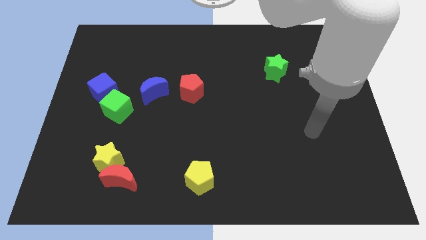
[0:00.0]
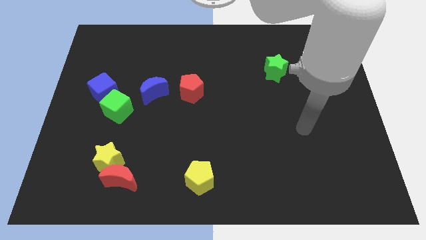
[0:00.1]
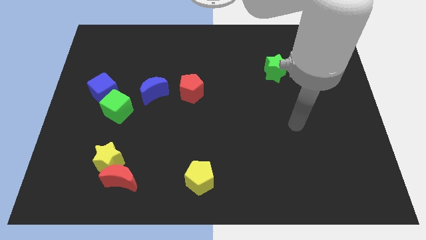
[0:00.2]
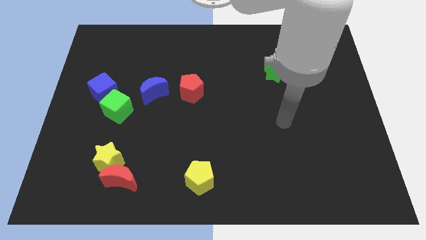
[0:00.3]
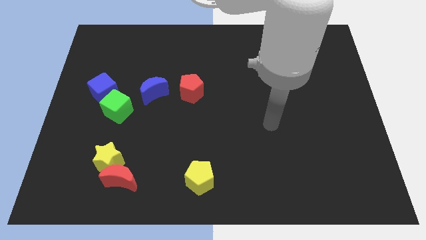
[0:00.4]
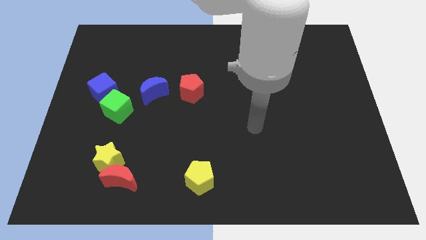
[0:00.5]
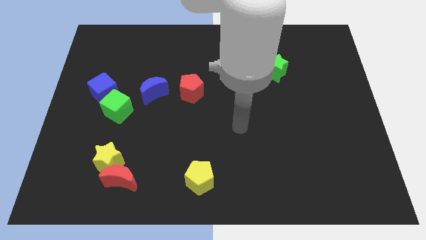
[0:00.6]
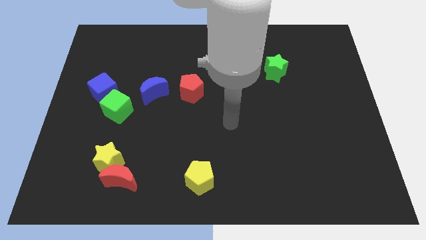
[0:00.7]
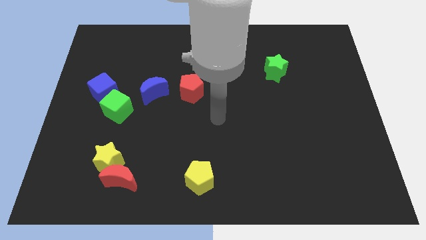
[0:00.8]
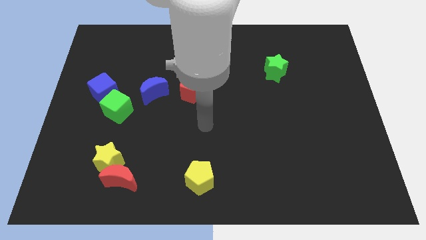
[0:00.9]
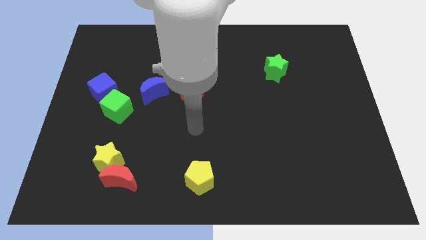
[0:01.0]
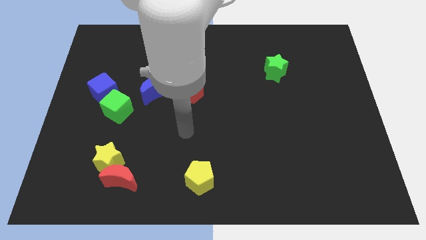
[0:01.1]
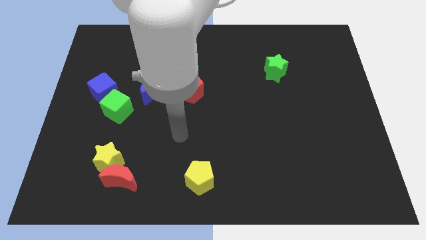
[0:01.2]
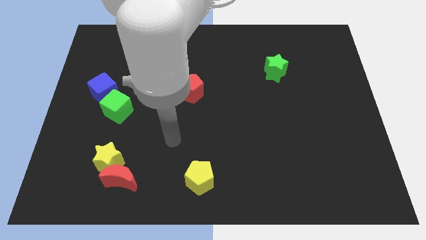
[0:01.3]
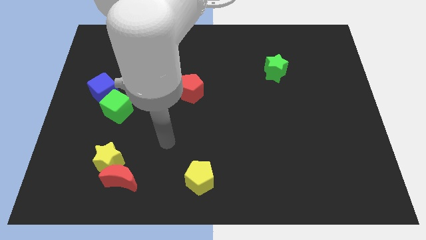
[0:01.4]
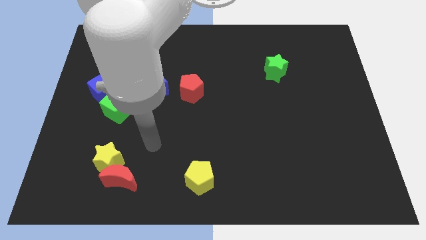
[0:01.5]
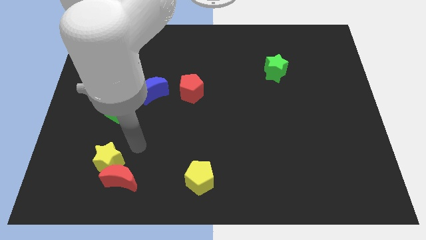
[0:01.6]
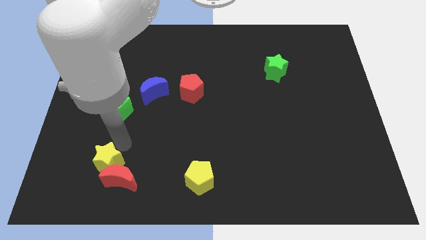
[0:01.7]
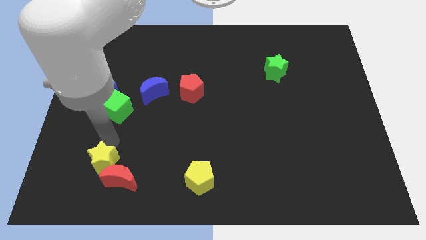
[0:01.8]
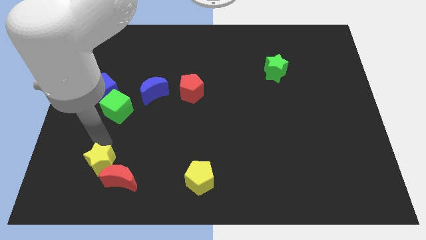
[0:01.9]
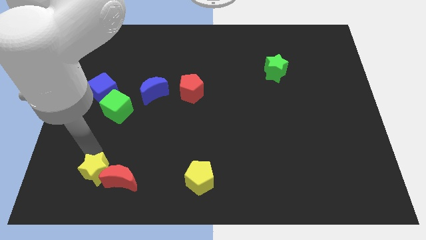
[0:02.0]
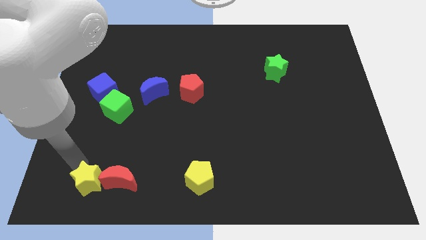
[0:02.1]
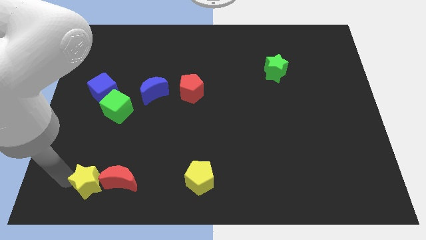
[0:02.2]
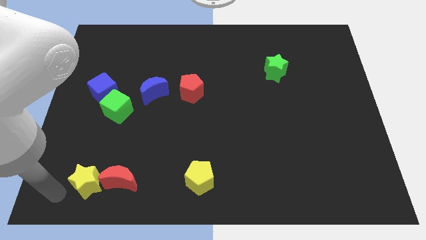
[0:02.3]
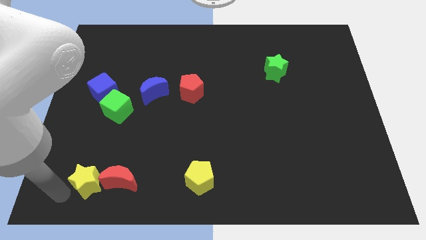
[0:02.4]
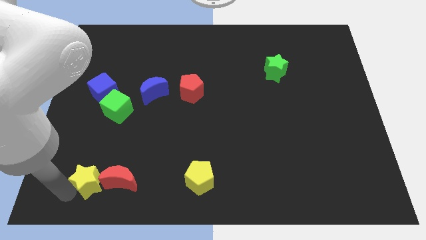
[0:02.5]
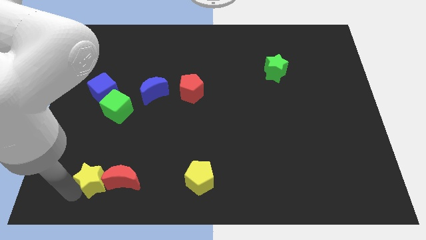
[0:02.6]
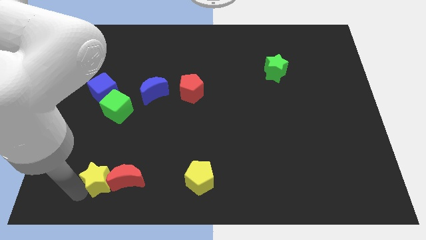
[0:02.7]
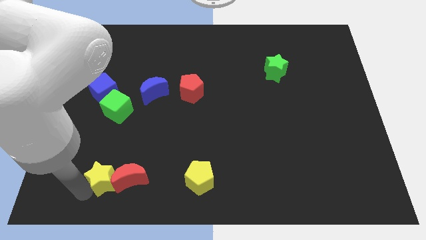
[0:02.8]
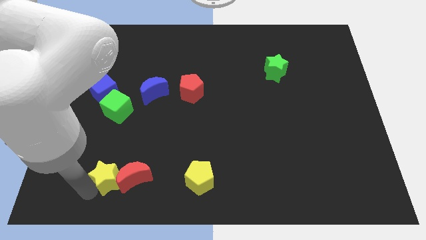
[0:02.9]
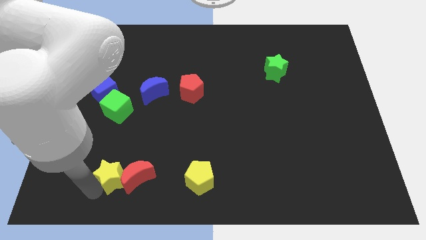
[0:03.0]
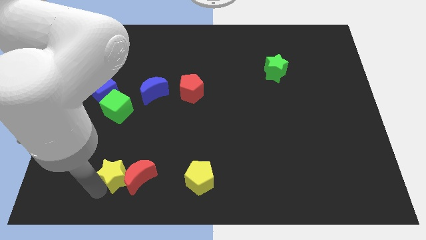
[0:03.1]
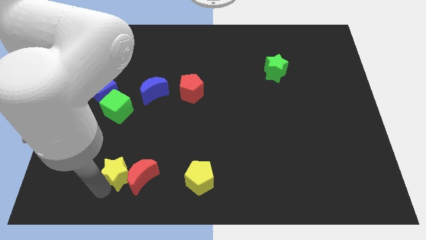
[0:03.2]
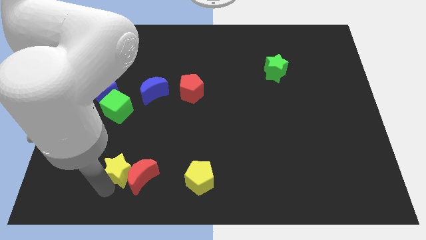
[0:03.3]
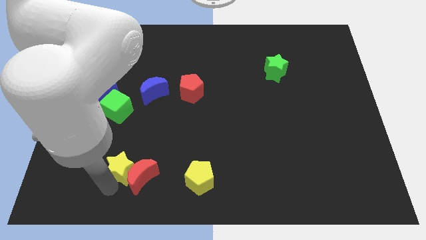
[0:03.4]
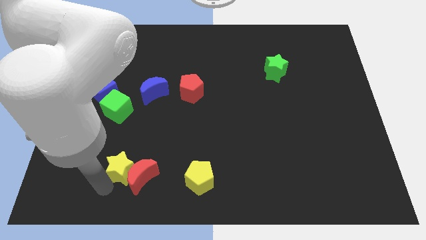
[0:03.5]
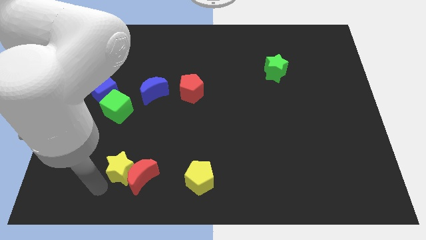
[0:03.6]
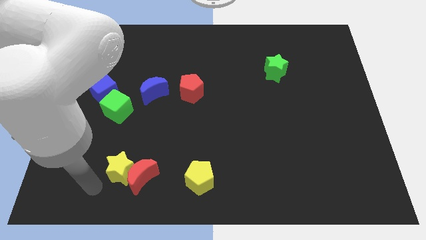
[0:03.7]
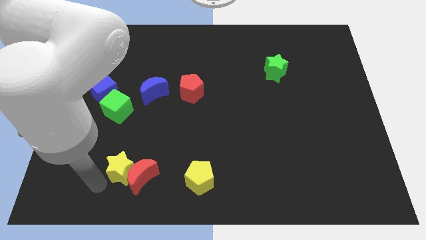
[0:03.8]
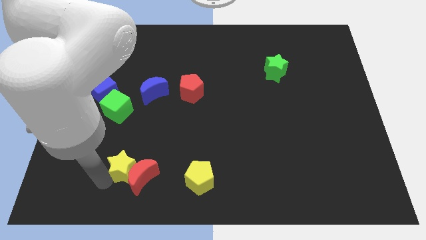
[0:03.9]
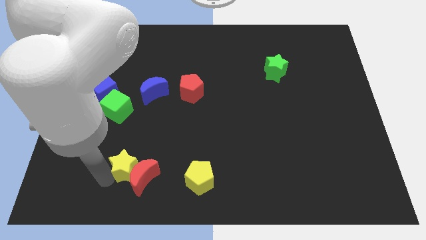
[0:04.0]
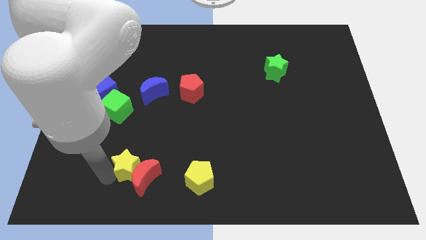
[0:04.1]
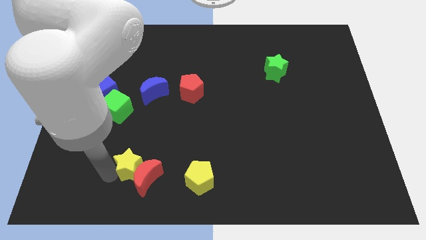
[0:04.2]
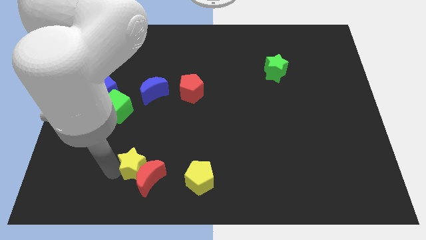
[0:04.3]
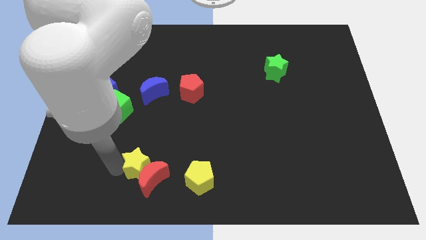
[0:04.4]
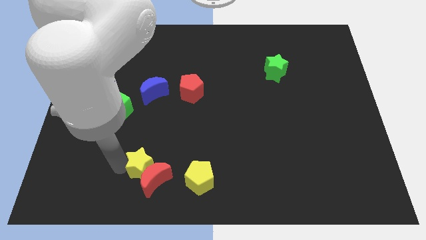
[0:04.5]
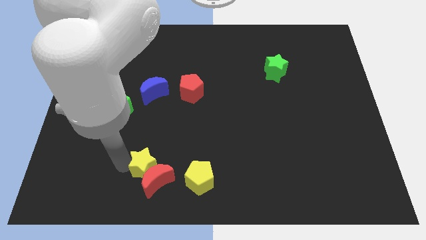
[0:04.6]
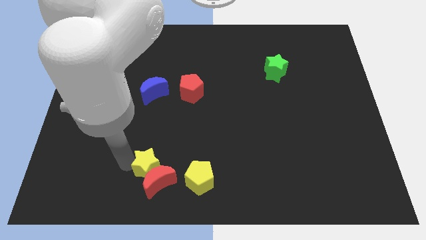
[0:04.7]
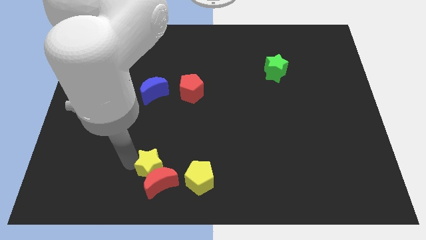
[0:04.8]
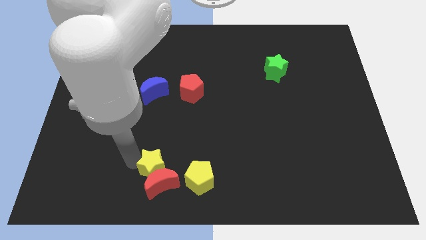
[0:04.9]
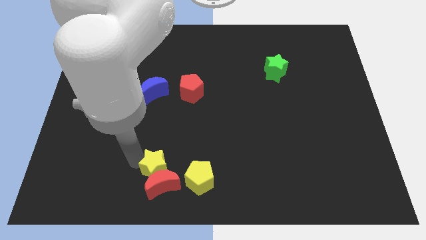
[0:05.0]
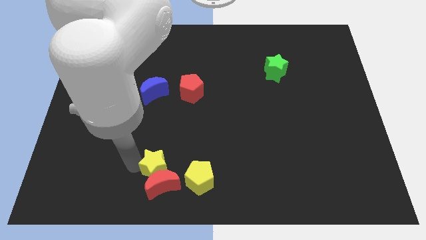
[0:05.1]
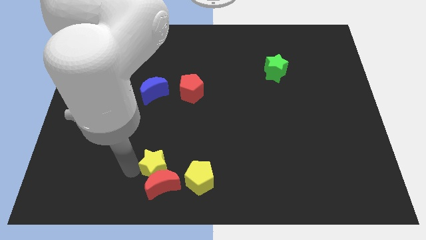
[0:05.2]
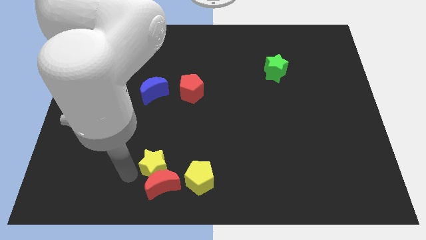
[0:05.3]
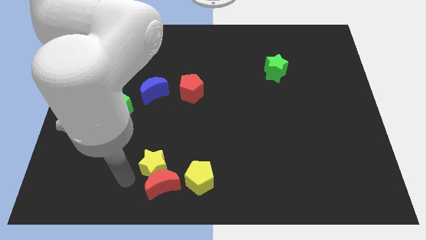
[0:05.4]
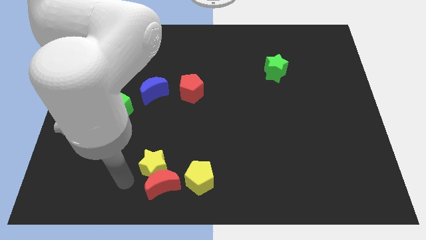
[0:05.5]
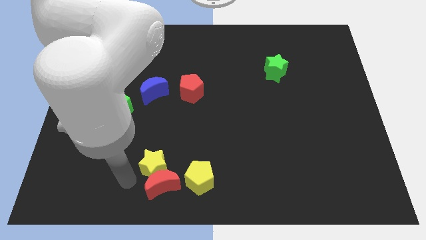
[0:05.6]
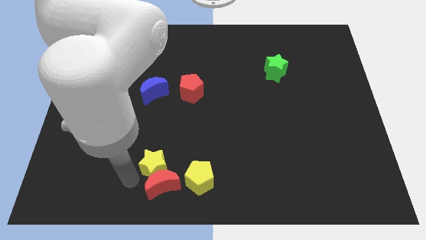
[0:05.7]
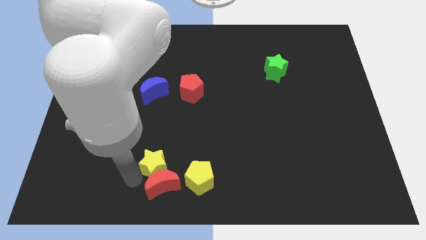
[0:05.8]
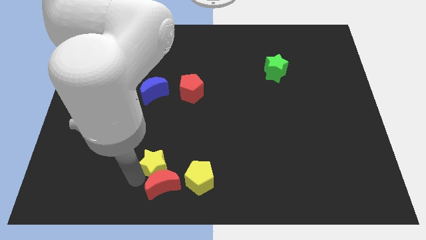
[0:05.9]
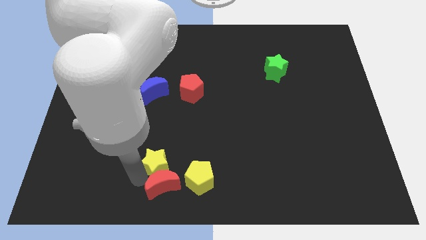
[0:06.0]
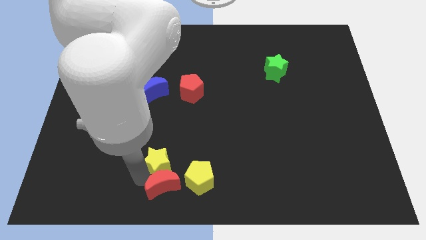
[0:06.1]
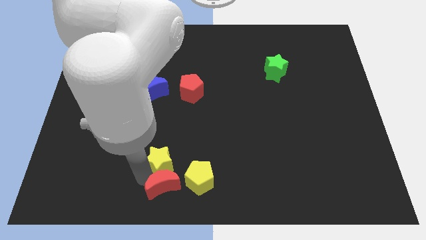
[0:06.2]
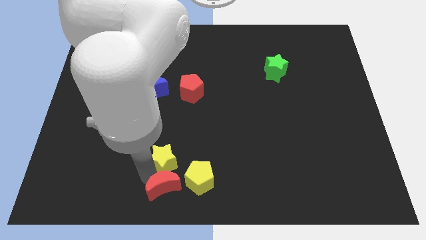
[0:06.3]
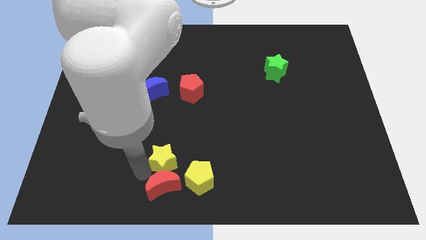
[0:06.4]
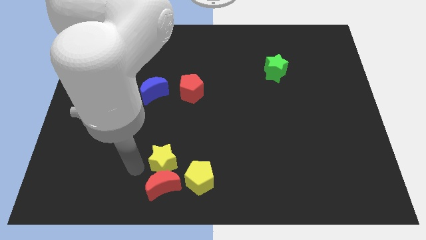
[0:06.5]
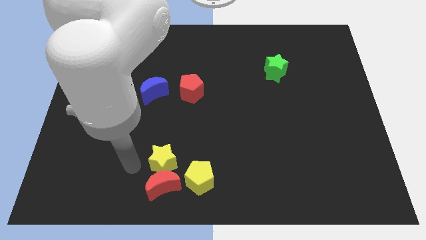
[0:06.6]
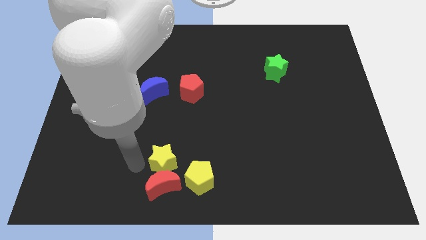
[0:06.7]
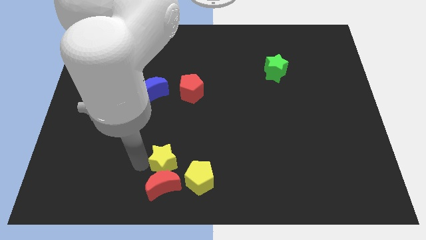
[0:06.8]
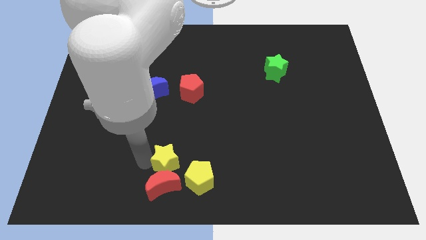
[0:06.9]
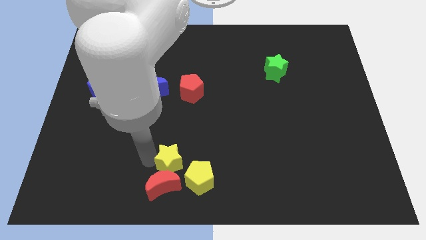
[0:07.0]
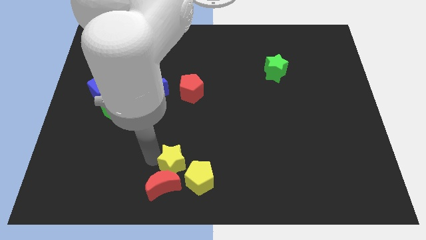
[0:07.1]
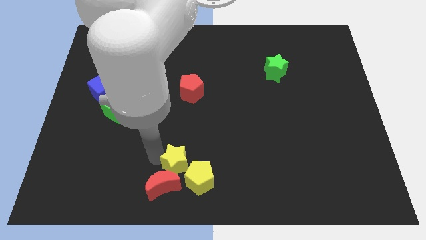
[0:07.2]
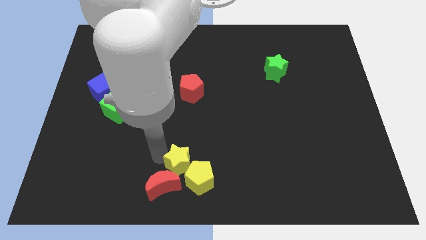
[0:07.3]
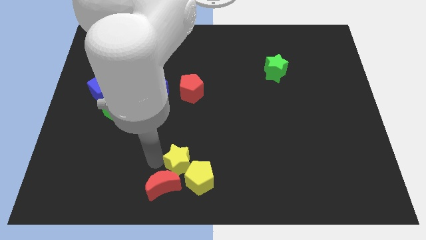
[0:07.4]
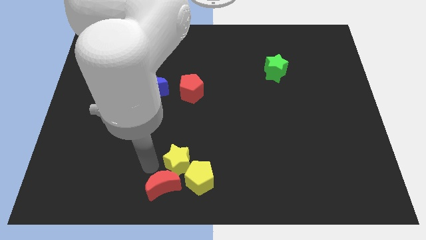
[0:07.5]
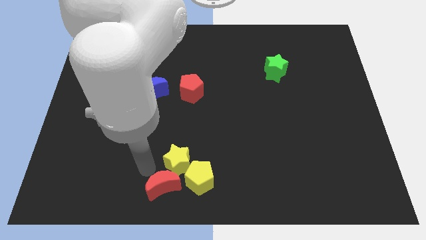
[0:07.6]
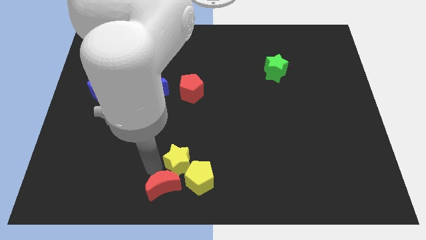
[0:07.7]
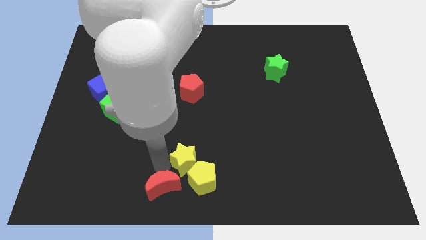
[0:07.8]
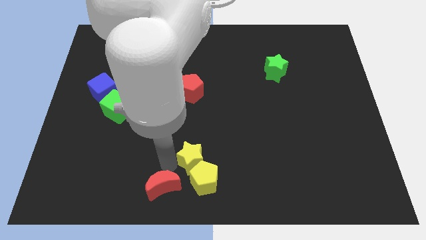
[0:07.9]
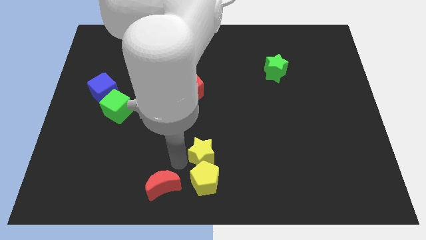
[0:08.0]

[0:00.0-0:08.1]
move the yellow star diagonally up and to the right of the yellow pentagon
